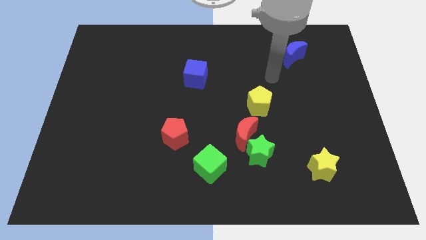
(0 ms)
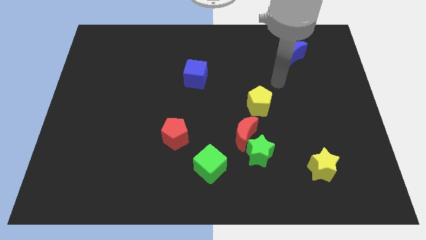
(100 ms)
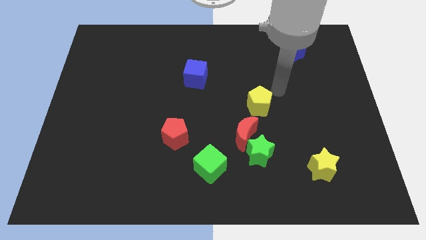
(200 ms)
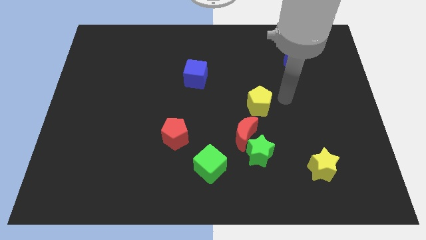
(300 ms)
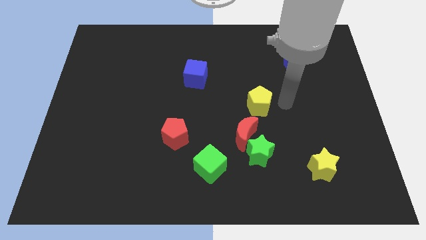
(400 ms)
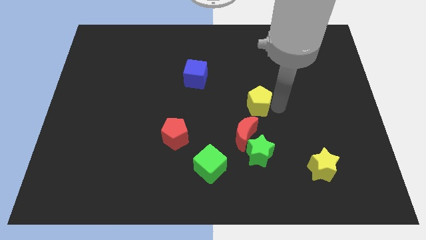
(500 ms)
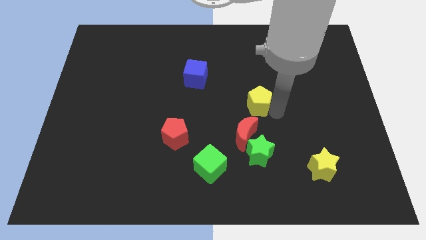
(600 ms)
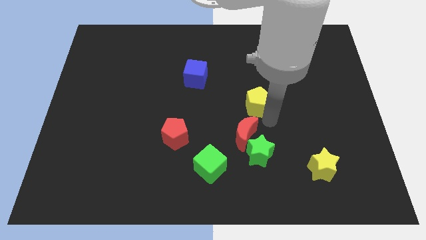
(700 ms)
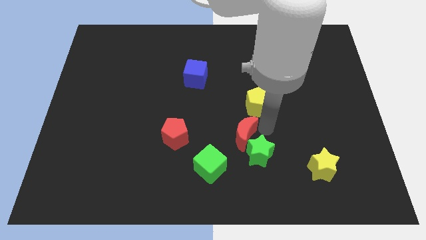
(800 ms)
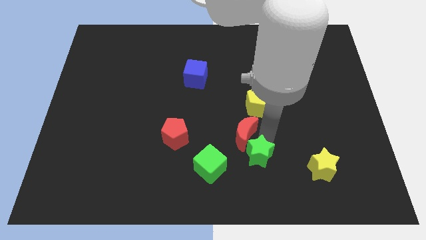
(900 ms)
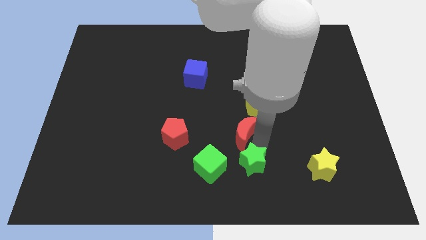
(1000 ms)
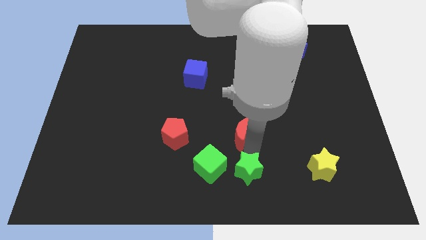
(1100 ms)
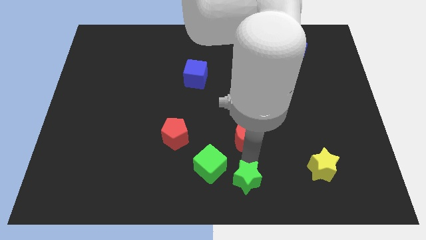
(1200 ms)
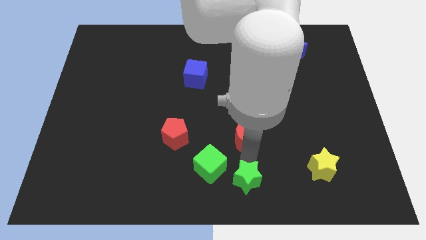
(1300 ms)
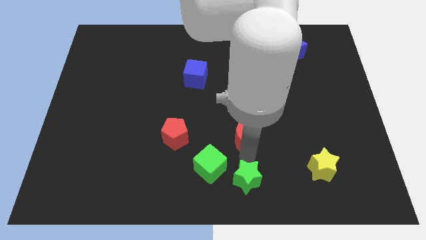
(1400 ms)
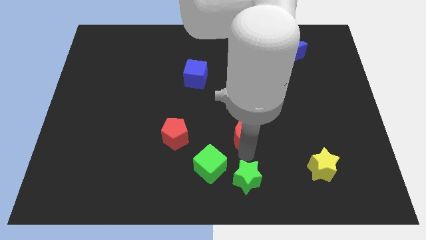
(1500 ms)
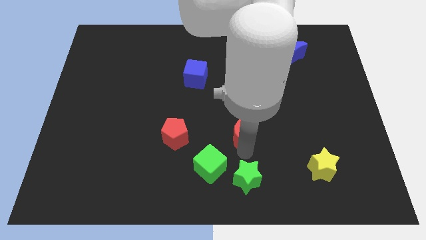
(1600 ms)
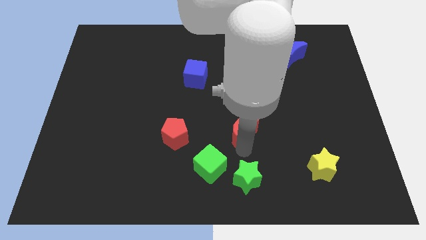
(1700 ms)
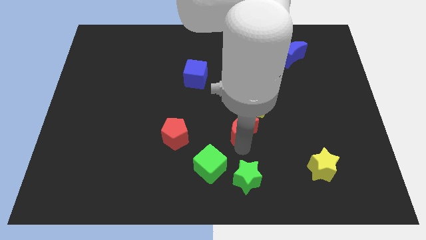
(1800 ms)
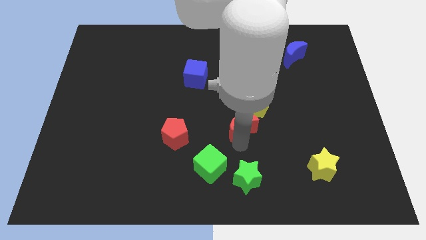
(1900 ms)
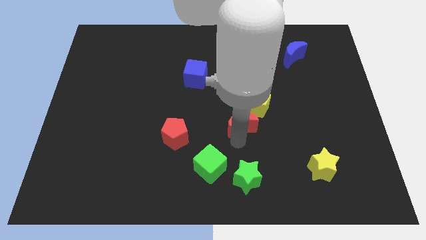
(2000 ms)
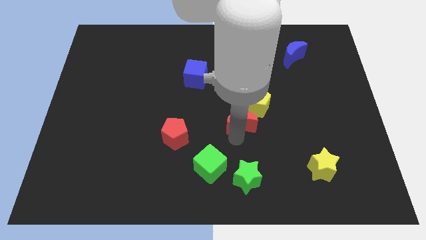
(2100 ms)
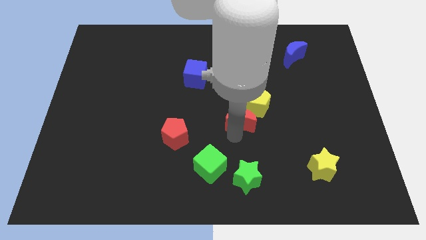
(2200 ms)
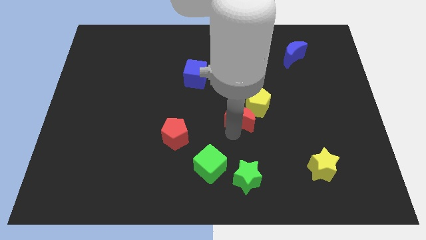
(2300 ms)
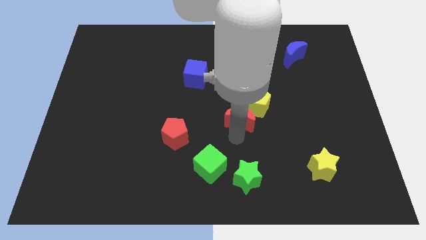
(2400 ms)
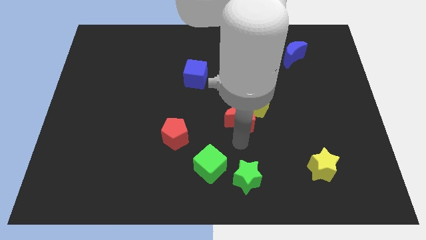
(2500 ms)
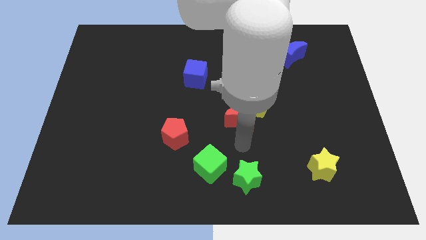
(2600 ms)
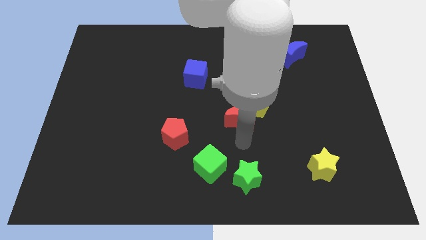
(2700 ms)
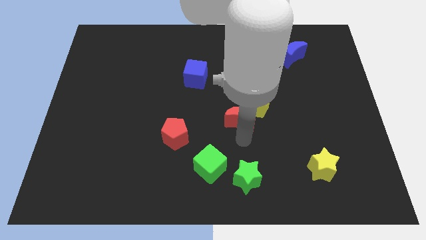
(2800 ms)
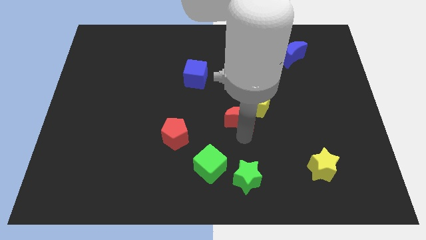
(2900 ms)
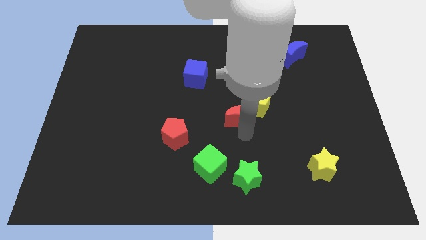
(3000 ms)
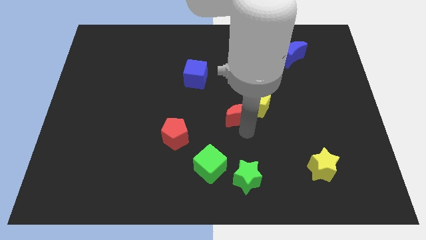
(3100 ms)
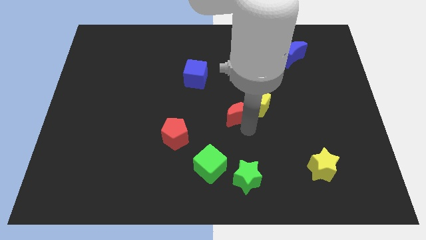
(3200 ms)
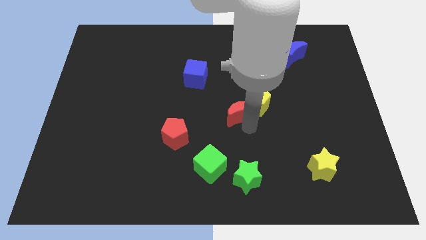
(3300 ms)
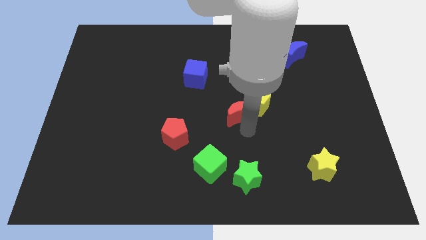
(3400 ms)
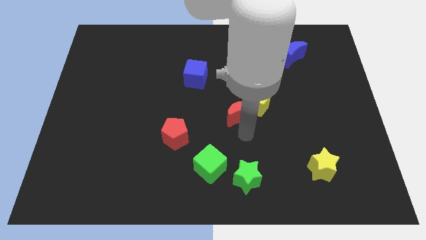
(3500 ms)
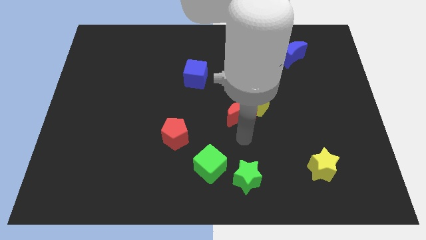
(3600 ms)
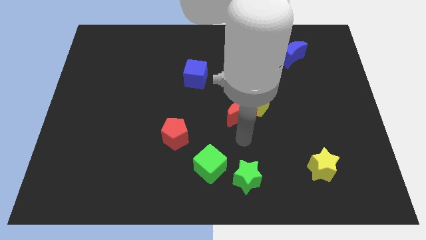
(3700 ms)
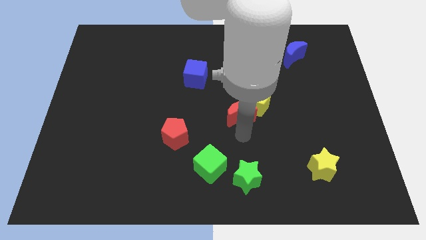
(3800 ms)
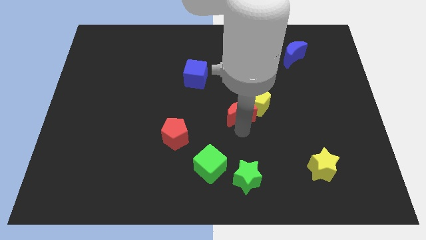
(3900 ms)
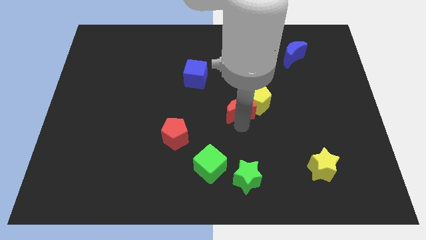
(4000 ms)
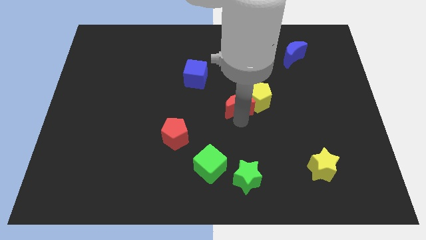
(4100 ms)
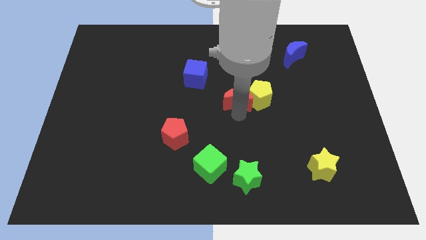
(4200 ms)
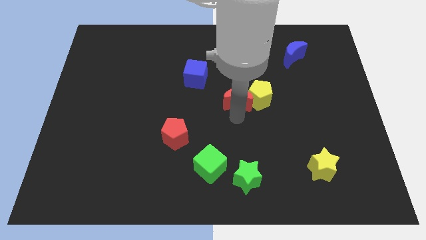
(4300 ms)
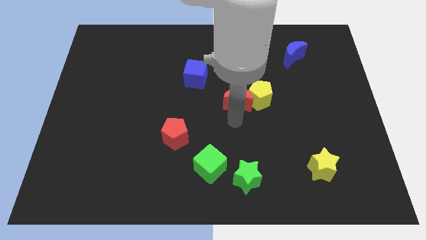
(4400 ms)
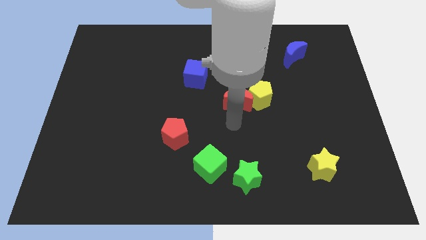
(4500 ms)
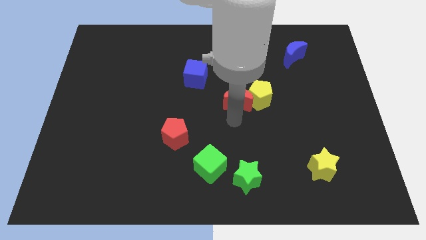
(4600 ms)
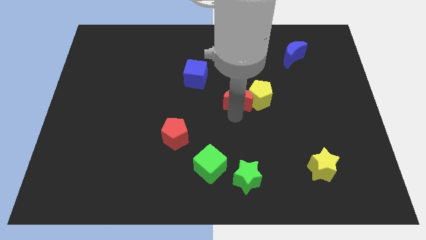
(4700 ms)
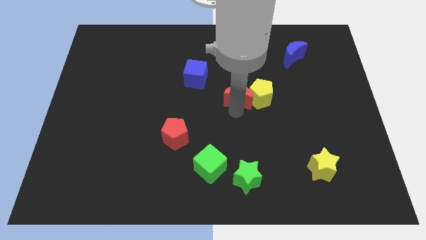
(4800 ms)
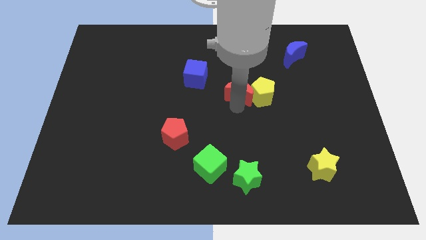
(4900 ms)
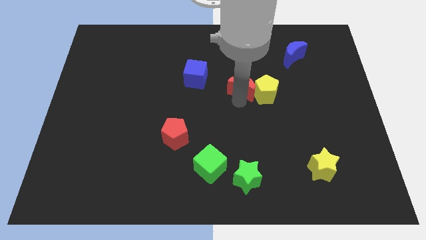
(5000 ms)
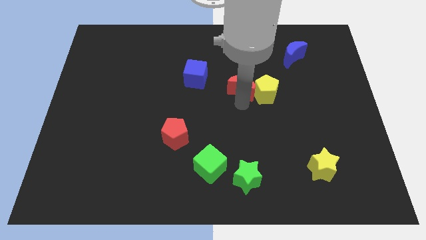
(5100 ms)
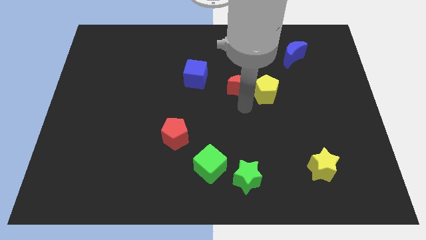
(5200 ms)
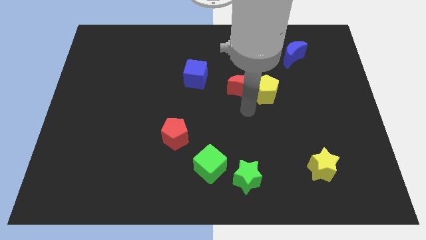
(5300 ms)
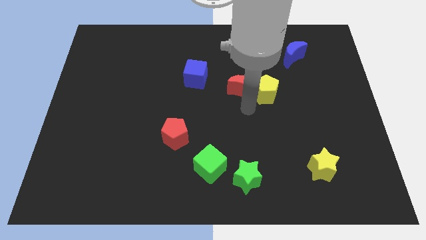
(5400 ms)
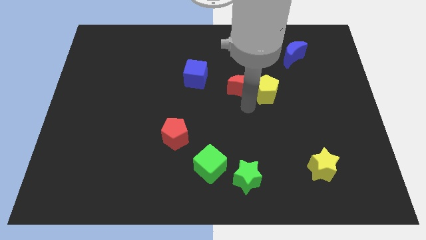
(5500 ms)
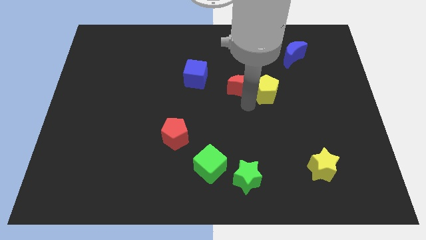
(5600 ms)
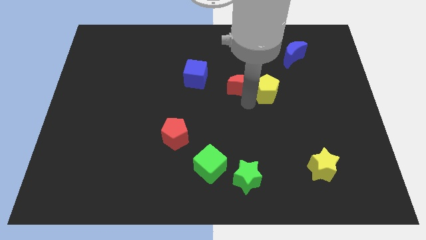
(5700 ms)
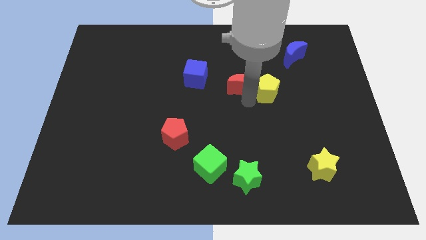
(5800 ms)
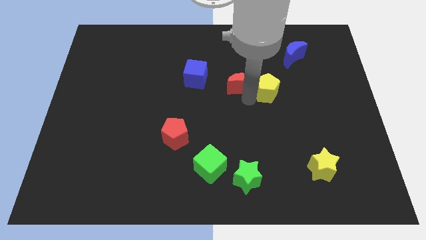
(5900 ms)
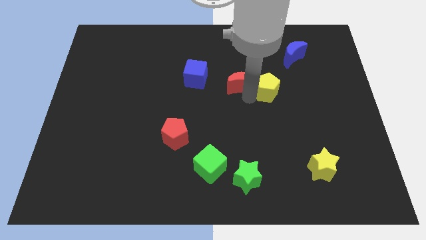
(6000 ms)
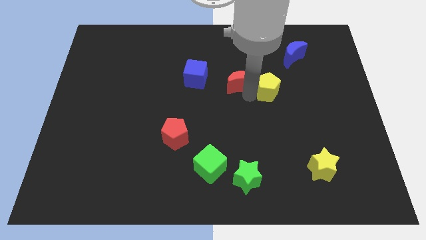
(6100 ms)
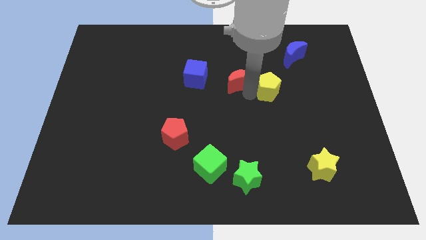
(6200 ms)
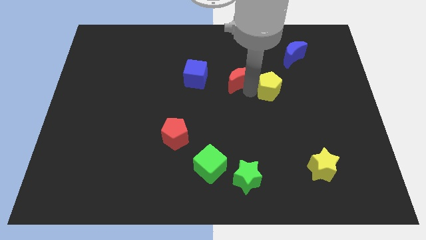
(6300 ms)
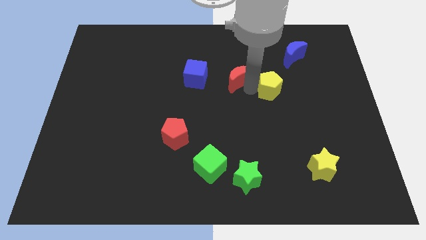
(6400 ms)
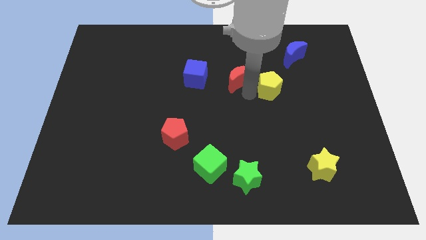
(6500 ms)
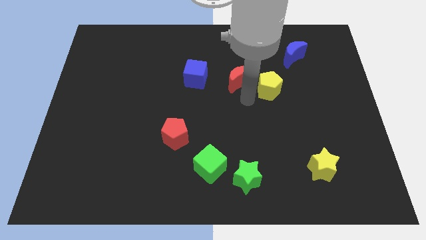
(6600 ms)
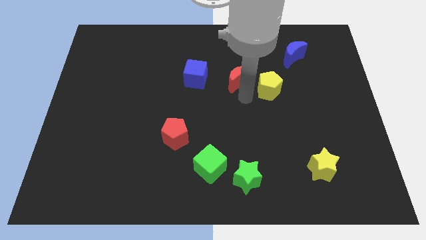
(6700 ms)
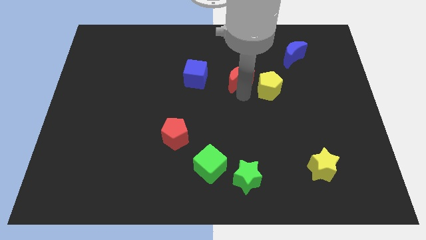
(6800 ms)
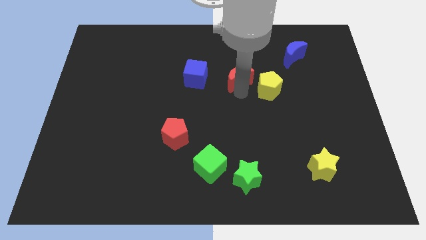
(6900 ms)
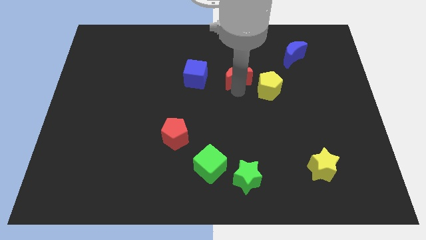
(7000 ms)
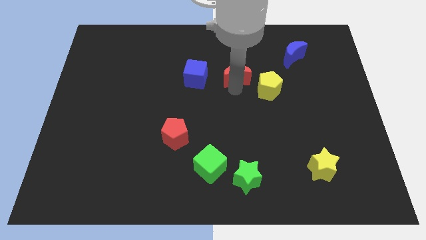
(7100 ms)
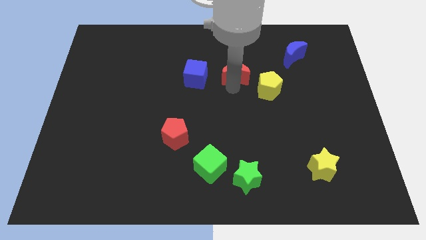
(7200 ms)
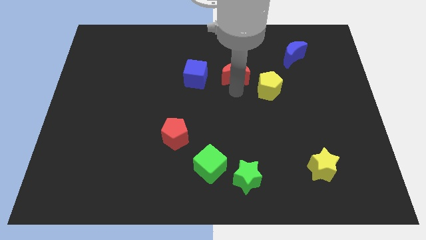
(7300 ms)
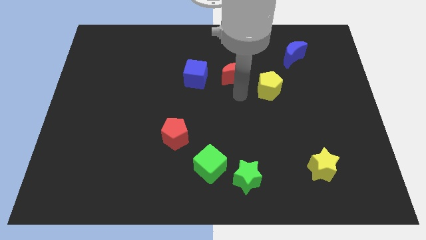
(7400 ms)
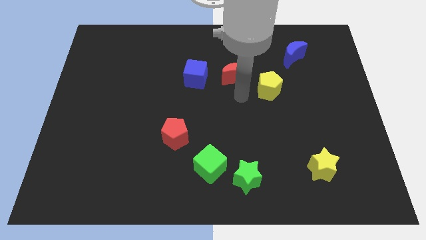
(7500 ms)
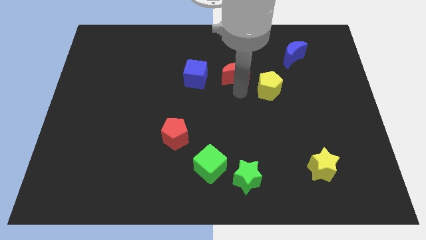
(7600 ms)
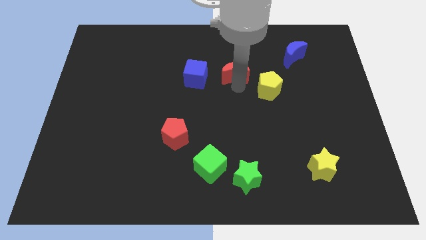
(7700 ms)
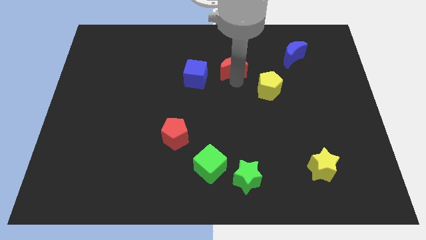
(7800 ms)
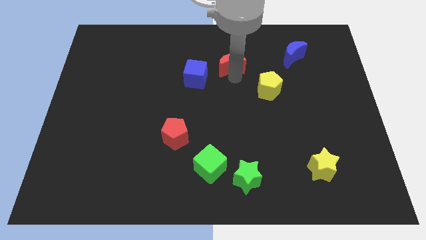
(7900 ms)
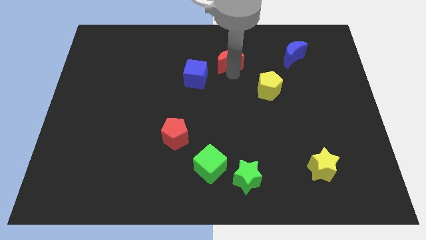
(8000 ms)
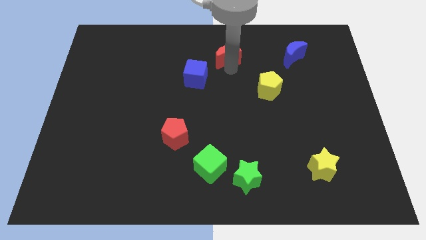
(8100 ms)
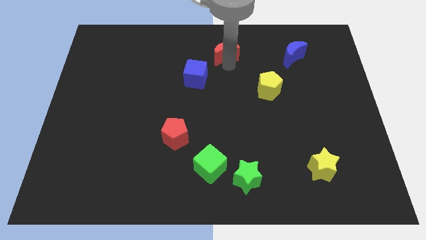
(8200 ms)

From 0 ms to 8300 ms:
put the red moon to the top side
